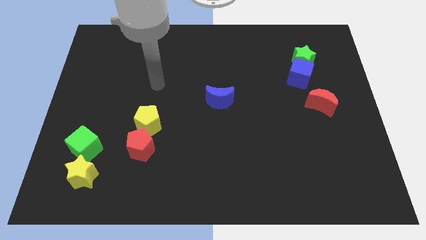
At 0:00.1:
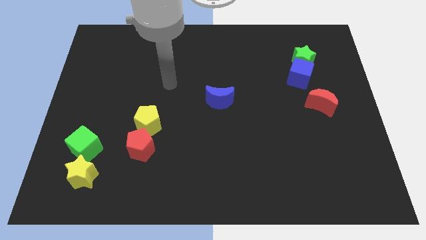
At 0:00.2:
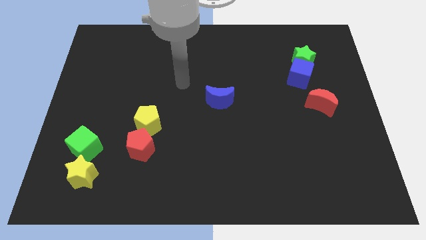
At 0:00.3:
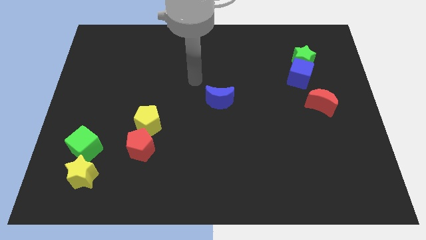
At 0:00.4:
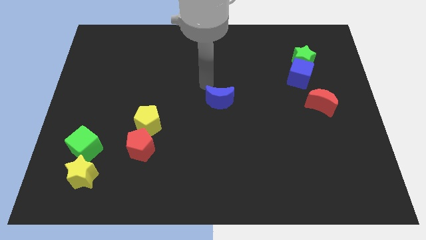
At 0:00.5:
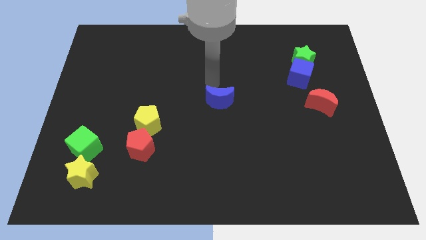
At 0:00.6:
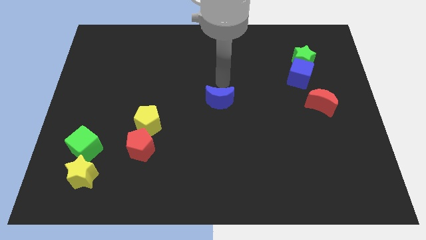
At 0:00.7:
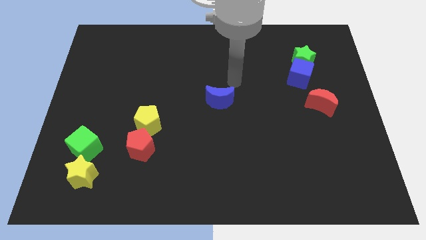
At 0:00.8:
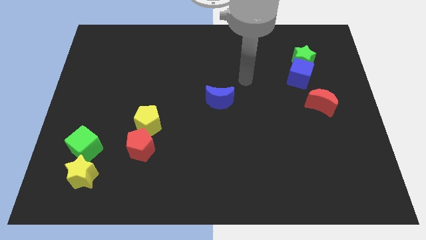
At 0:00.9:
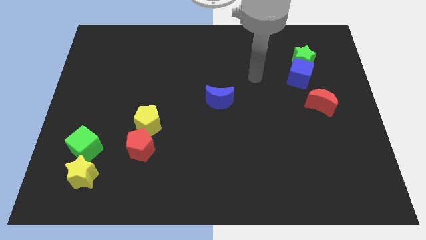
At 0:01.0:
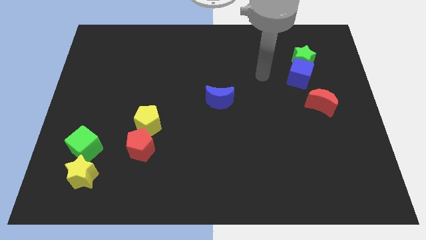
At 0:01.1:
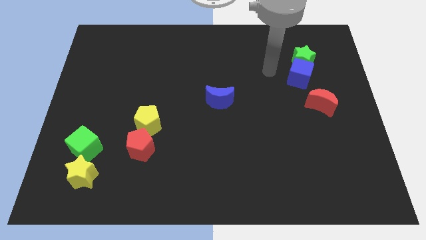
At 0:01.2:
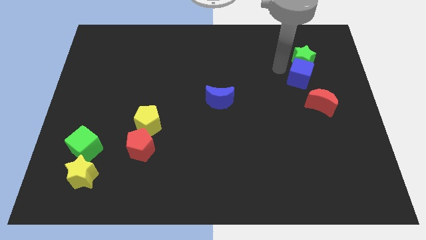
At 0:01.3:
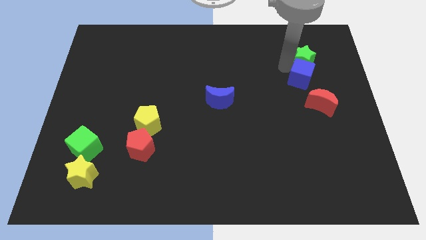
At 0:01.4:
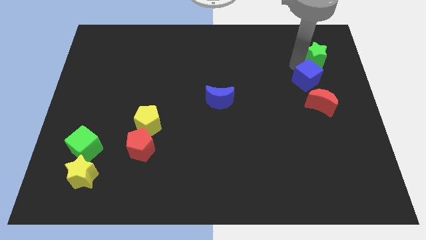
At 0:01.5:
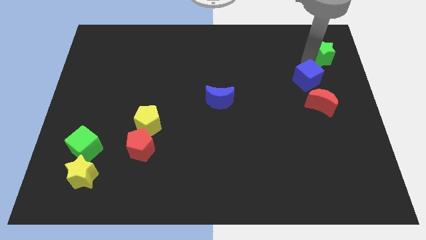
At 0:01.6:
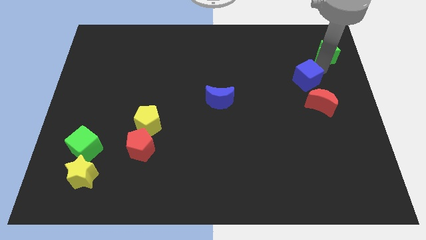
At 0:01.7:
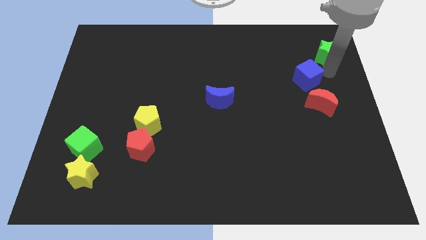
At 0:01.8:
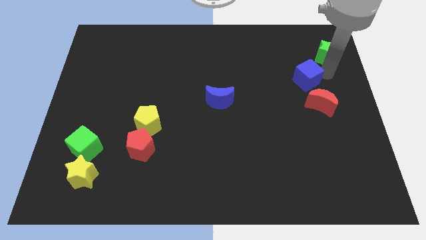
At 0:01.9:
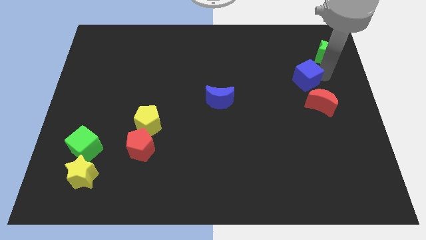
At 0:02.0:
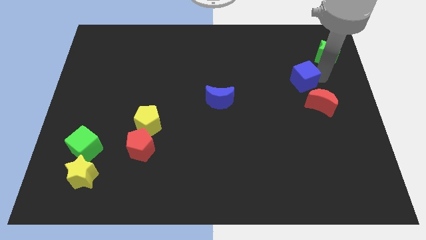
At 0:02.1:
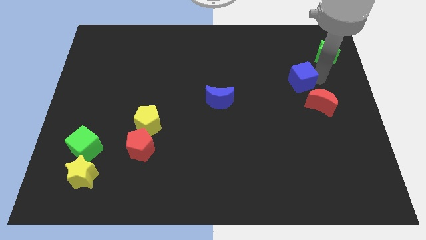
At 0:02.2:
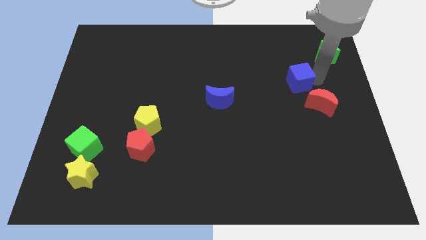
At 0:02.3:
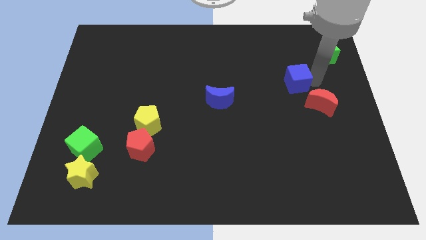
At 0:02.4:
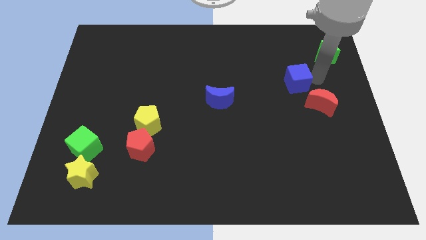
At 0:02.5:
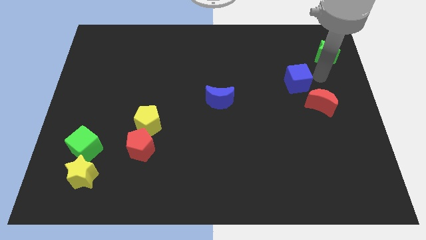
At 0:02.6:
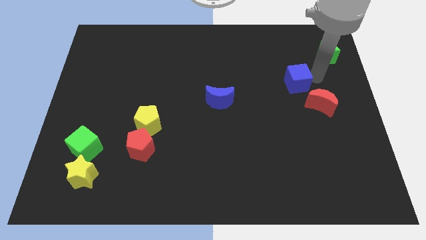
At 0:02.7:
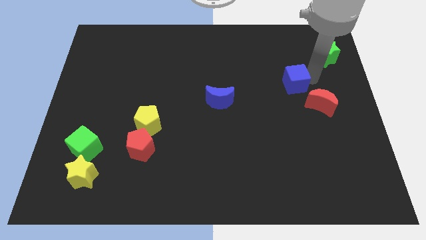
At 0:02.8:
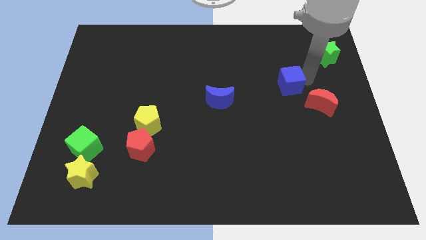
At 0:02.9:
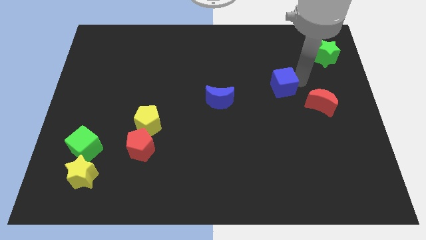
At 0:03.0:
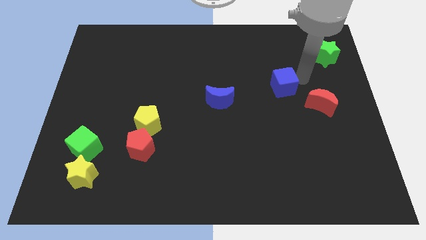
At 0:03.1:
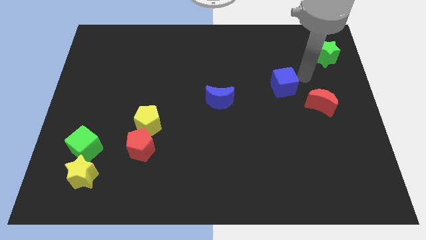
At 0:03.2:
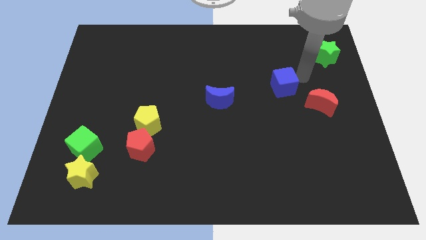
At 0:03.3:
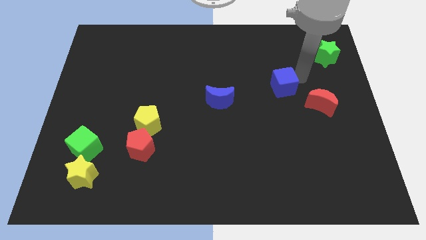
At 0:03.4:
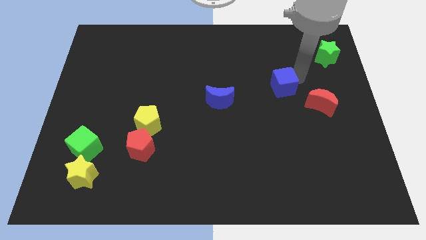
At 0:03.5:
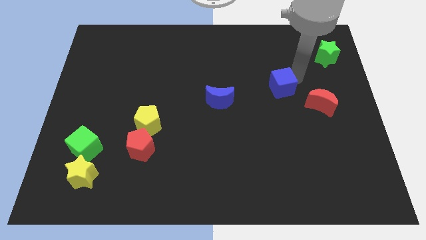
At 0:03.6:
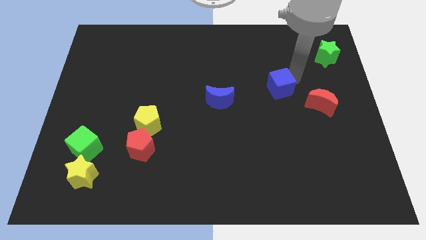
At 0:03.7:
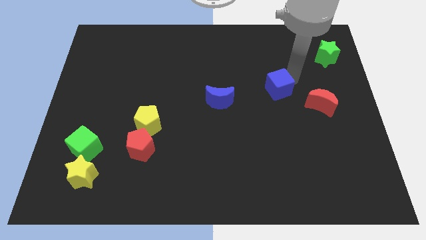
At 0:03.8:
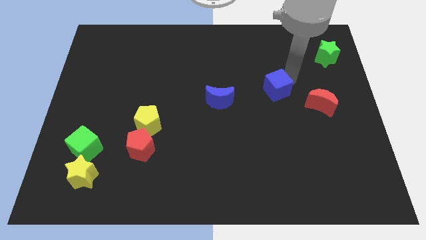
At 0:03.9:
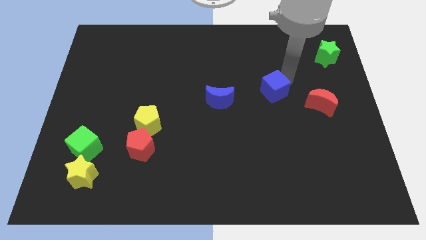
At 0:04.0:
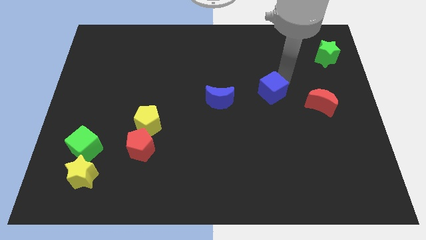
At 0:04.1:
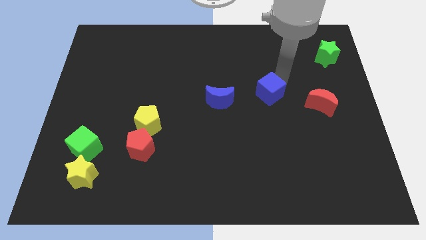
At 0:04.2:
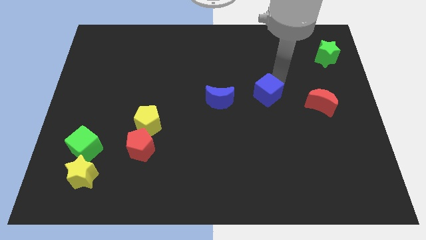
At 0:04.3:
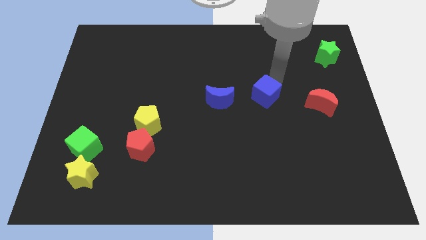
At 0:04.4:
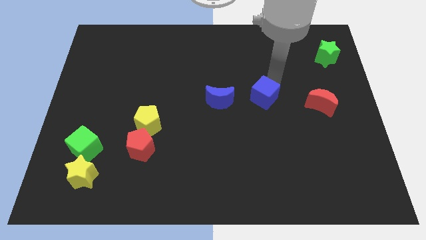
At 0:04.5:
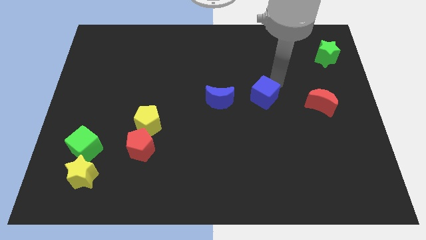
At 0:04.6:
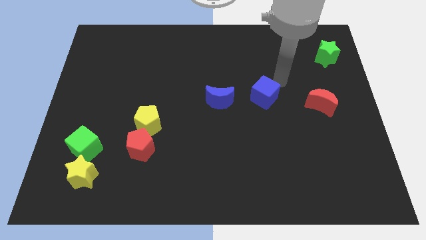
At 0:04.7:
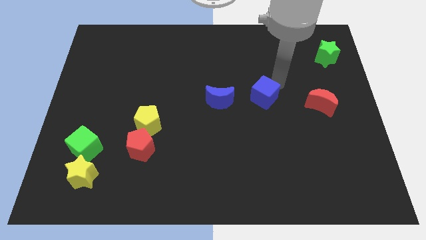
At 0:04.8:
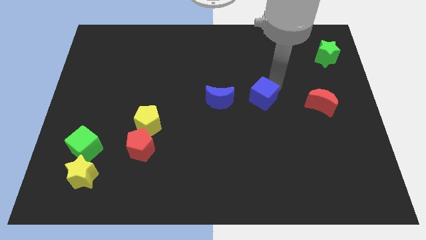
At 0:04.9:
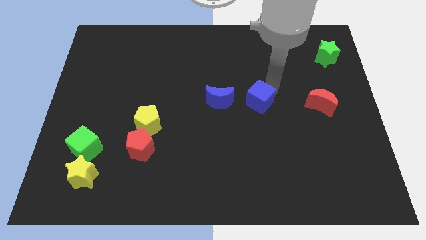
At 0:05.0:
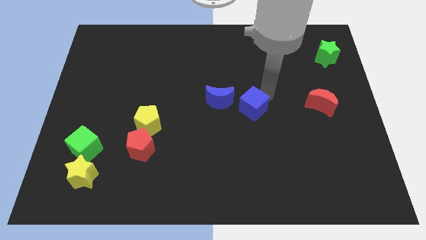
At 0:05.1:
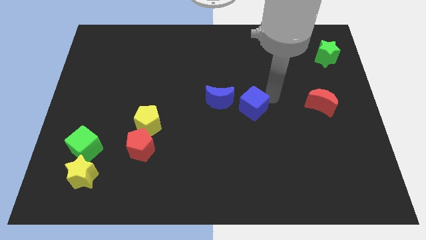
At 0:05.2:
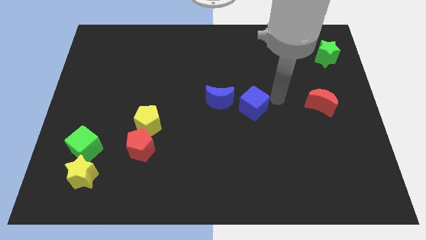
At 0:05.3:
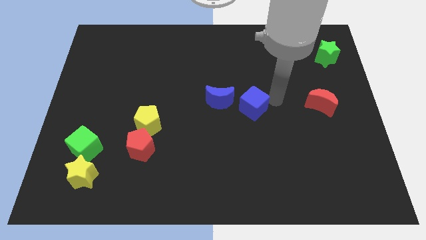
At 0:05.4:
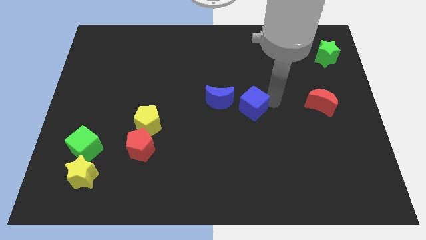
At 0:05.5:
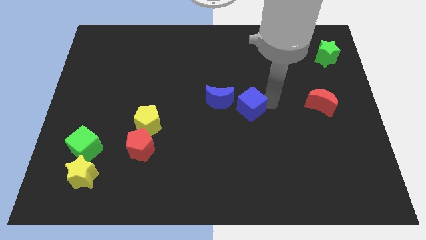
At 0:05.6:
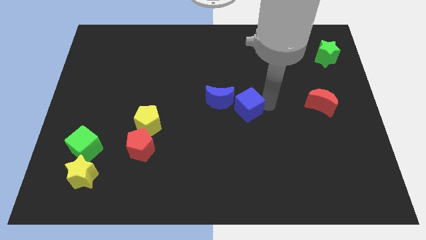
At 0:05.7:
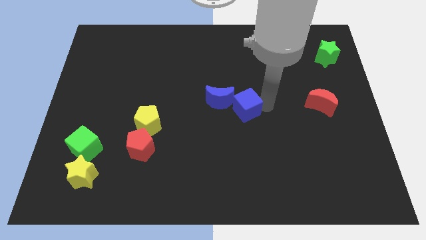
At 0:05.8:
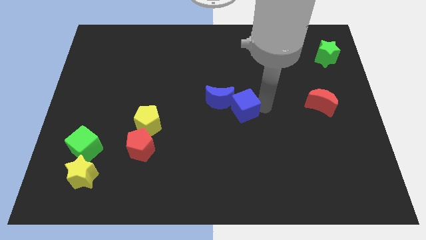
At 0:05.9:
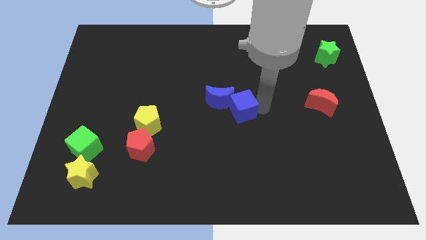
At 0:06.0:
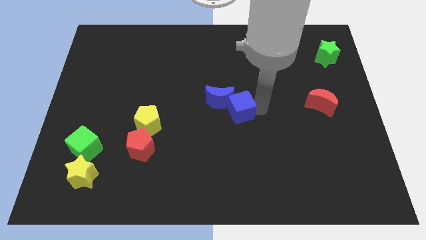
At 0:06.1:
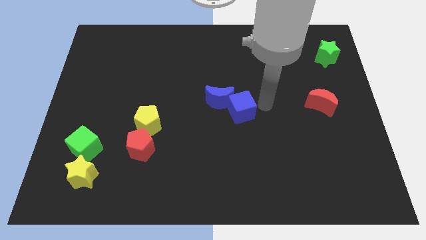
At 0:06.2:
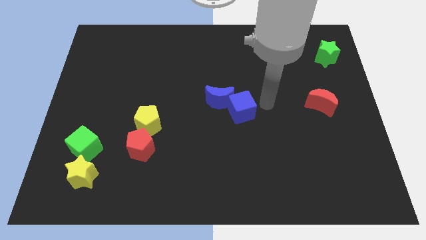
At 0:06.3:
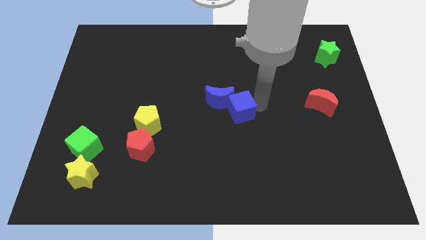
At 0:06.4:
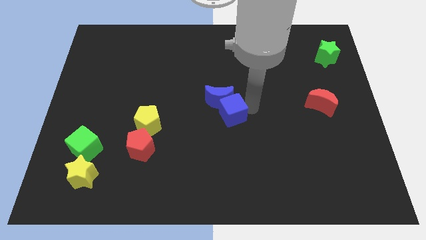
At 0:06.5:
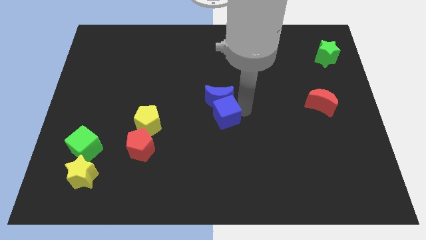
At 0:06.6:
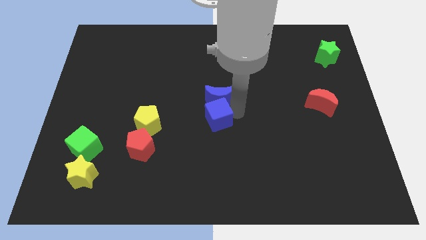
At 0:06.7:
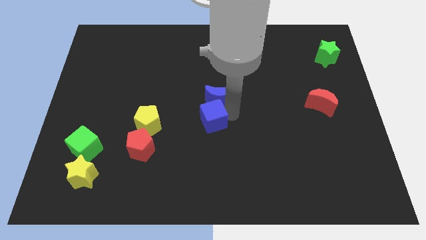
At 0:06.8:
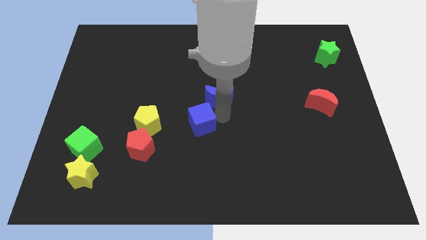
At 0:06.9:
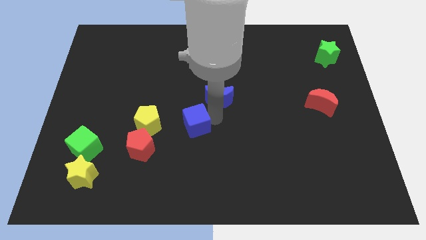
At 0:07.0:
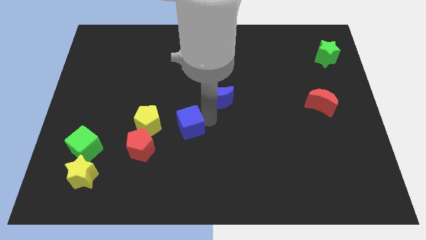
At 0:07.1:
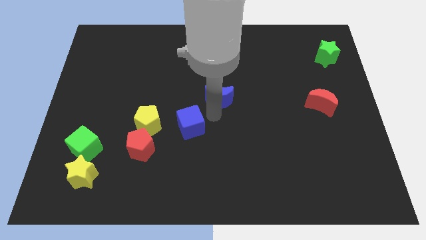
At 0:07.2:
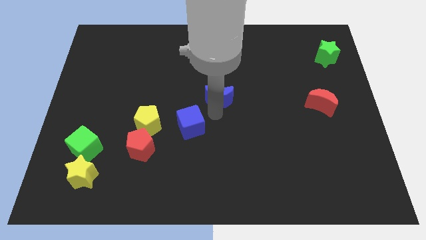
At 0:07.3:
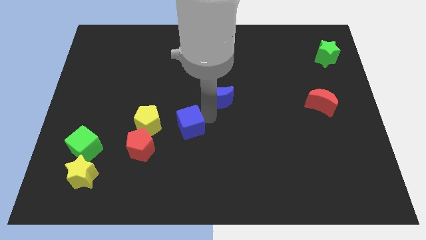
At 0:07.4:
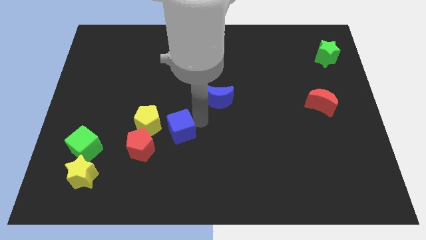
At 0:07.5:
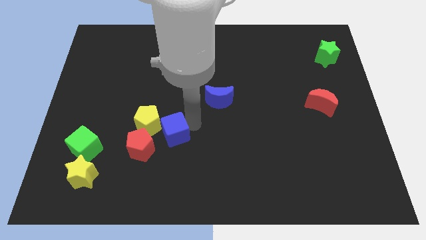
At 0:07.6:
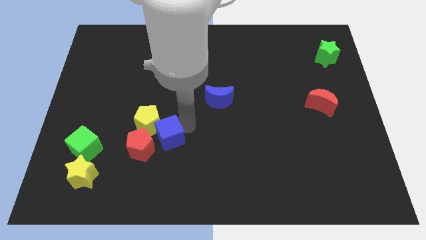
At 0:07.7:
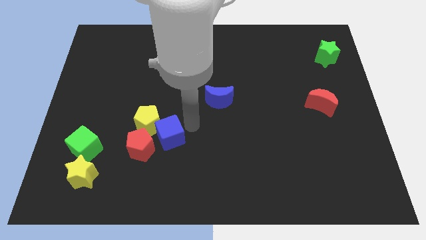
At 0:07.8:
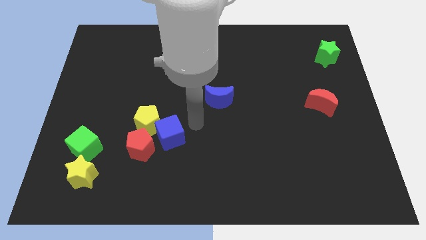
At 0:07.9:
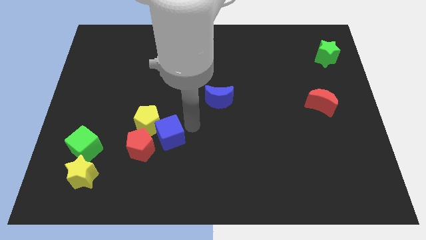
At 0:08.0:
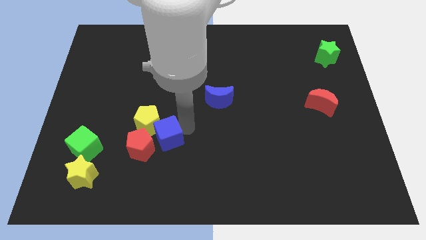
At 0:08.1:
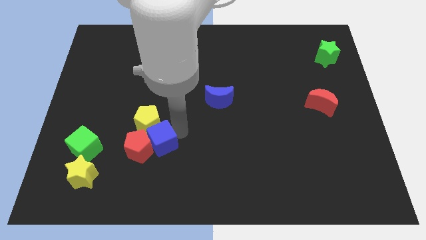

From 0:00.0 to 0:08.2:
move the blue cube next to the red pentagon
